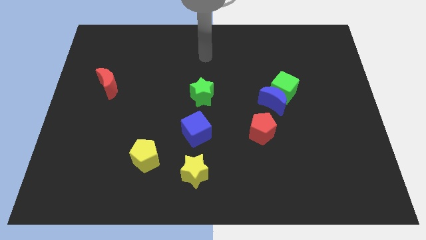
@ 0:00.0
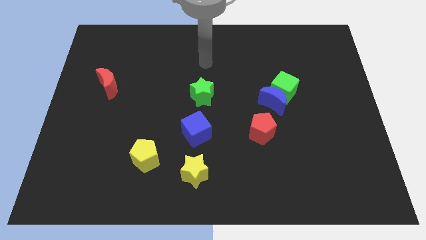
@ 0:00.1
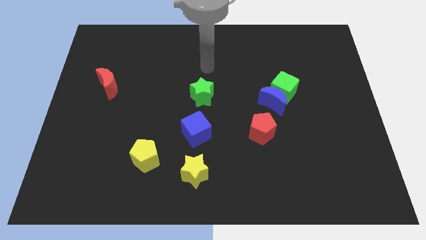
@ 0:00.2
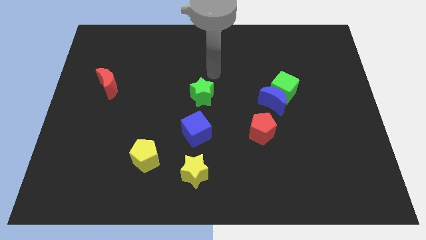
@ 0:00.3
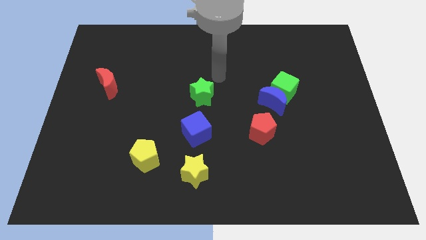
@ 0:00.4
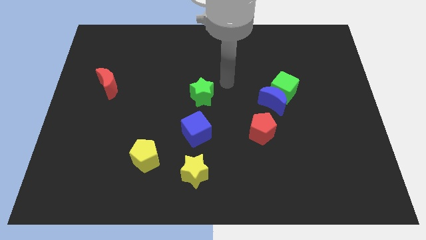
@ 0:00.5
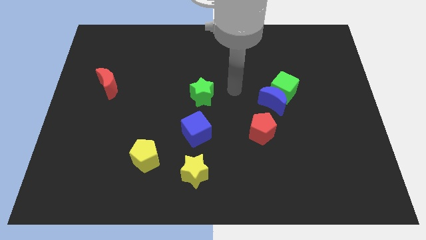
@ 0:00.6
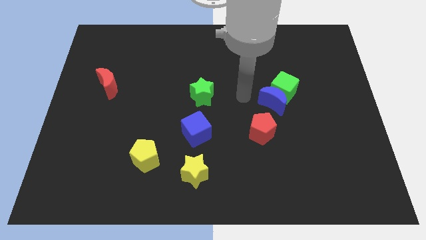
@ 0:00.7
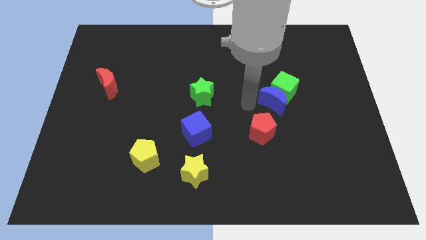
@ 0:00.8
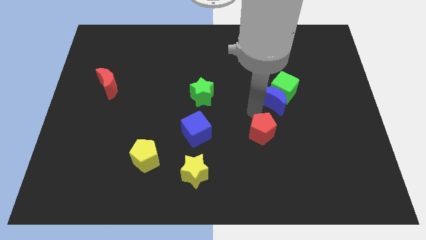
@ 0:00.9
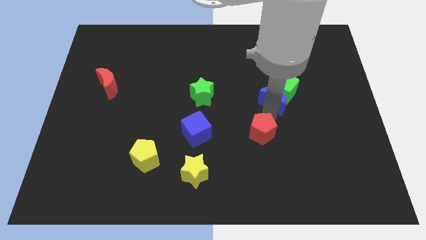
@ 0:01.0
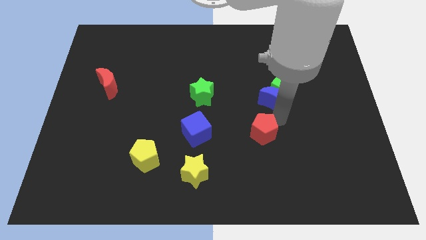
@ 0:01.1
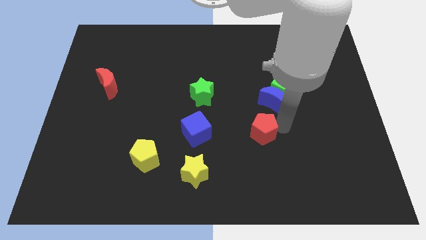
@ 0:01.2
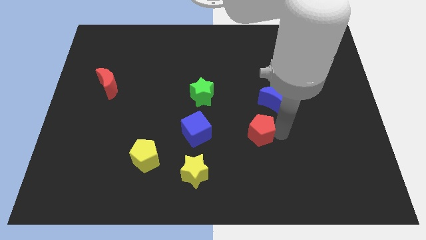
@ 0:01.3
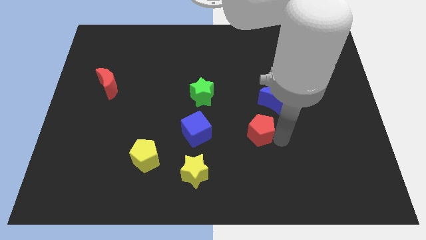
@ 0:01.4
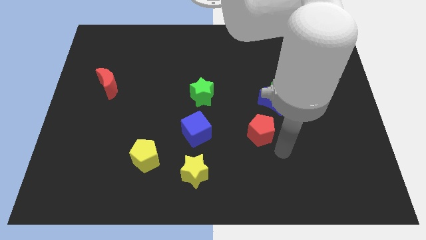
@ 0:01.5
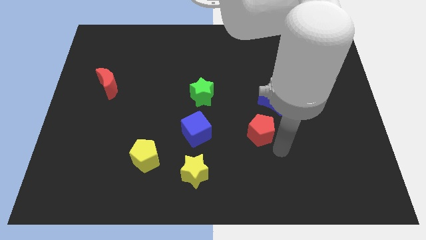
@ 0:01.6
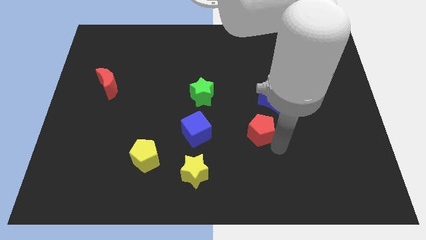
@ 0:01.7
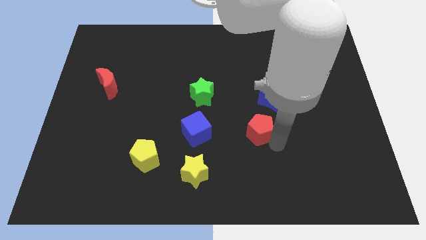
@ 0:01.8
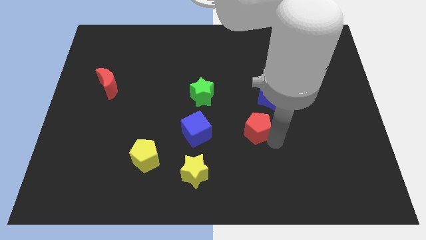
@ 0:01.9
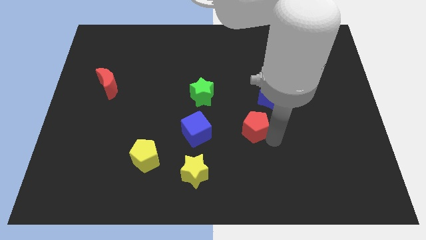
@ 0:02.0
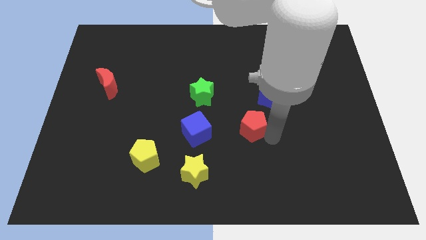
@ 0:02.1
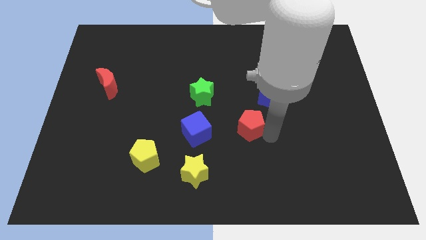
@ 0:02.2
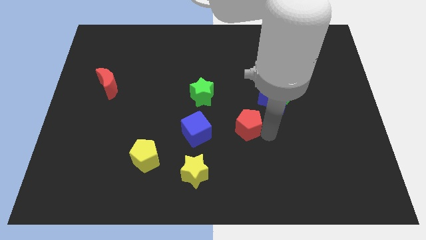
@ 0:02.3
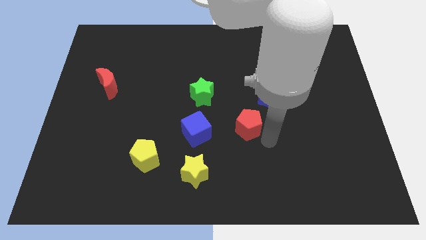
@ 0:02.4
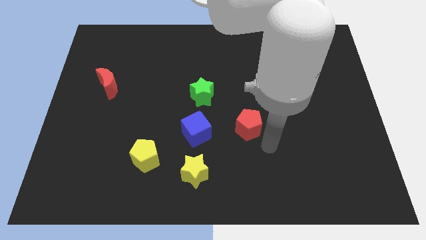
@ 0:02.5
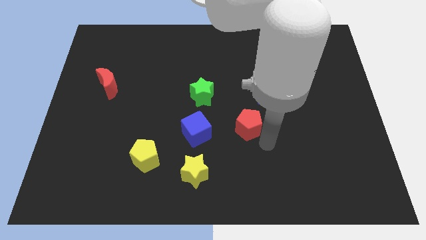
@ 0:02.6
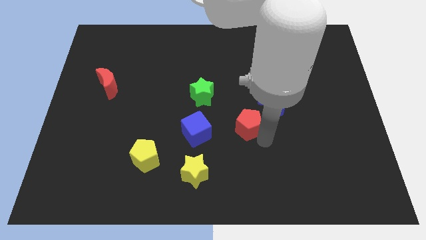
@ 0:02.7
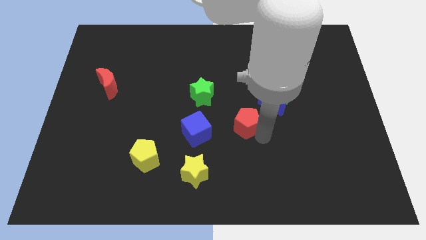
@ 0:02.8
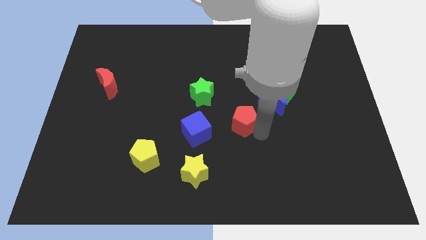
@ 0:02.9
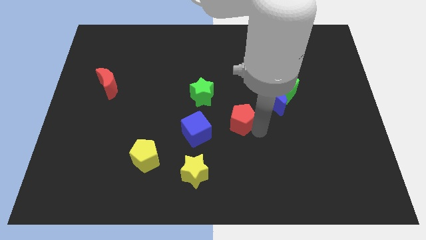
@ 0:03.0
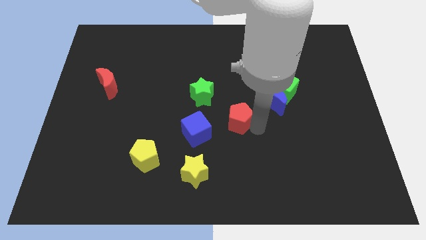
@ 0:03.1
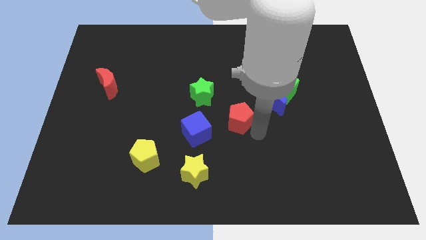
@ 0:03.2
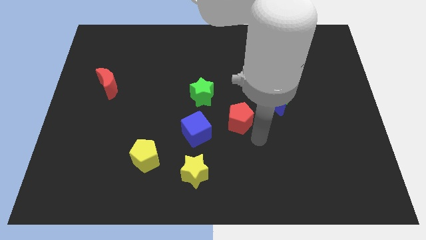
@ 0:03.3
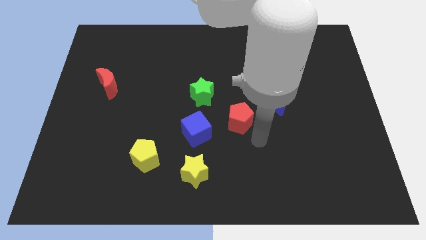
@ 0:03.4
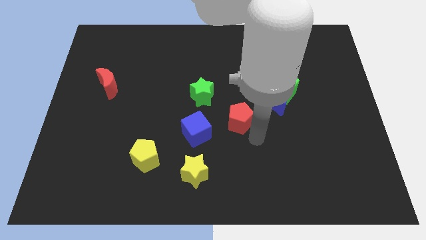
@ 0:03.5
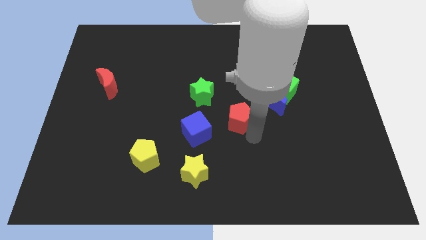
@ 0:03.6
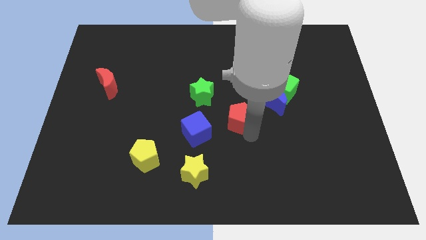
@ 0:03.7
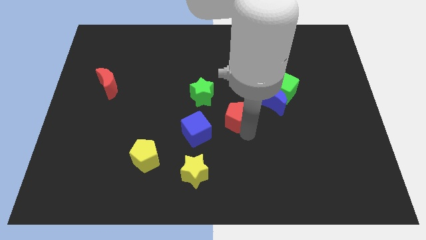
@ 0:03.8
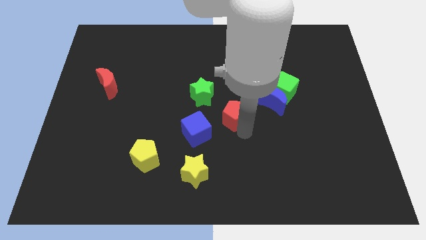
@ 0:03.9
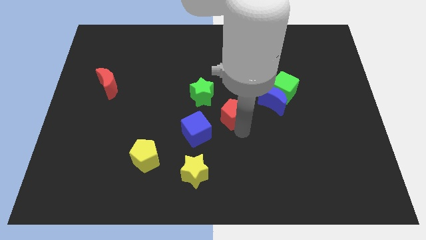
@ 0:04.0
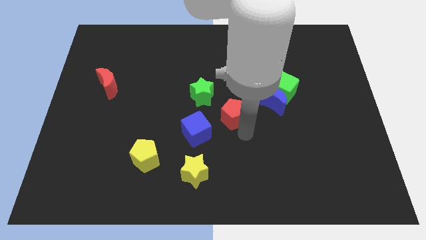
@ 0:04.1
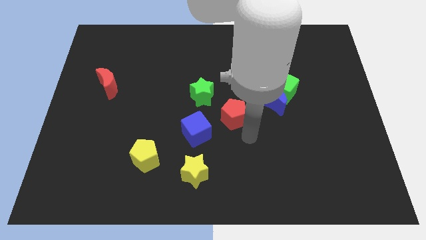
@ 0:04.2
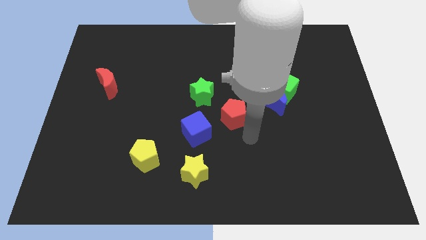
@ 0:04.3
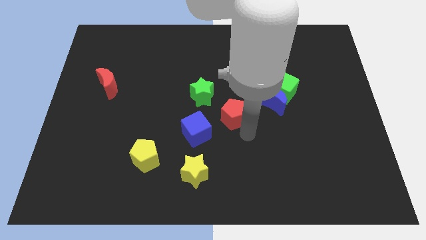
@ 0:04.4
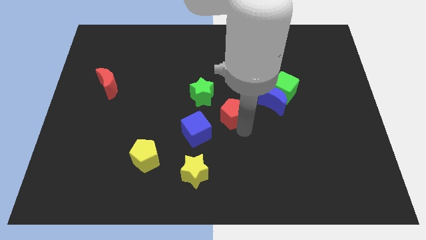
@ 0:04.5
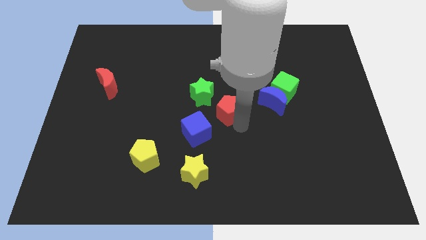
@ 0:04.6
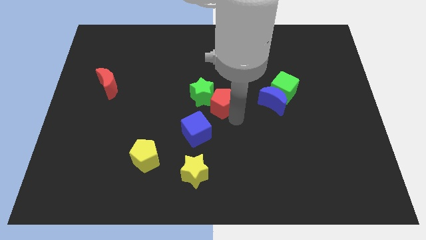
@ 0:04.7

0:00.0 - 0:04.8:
slide the red pentagon to the green star

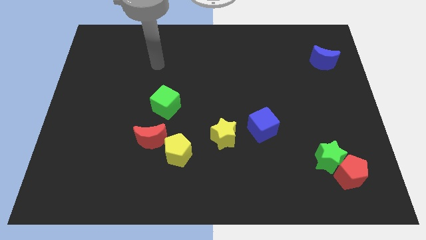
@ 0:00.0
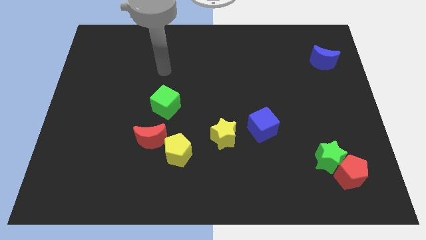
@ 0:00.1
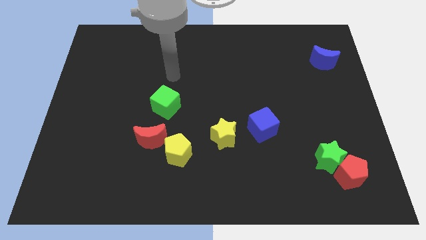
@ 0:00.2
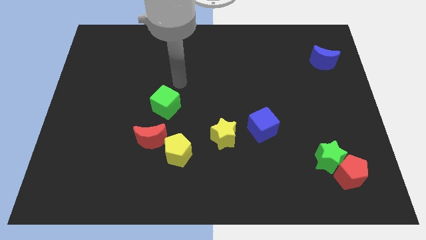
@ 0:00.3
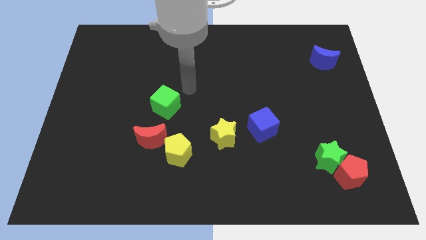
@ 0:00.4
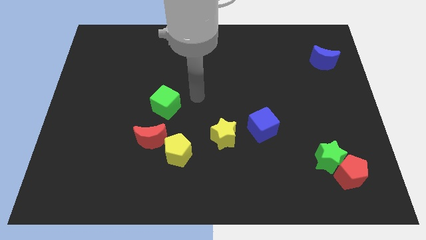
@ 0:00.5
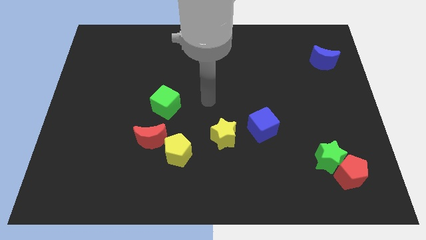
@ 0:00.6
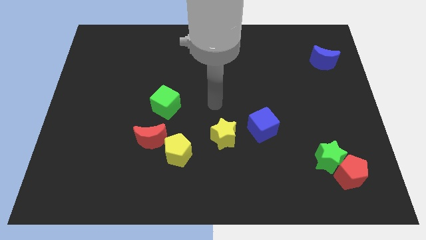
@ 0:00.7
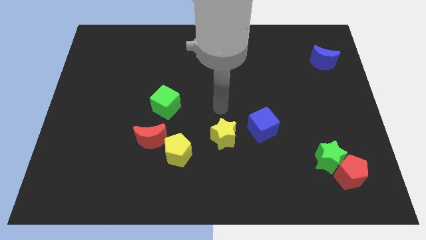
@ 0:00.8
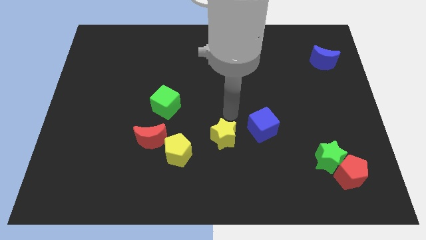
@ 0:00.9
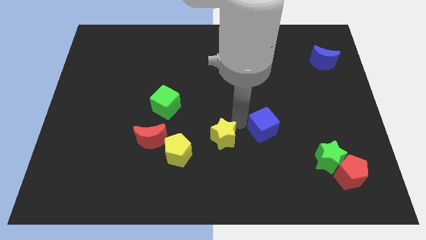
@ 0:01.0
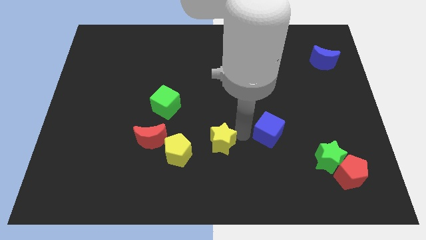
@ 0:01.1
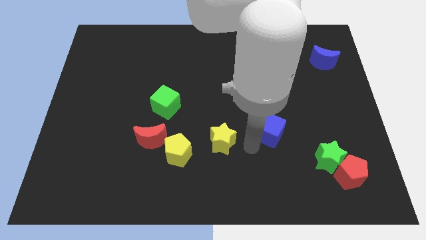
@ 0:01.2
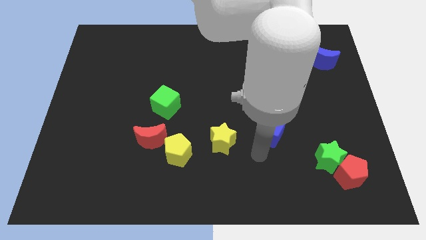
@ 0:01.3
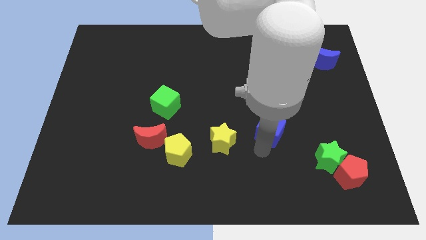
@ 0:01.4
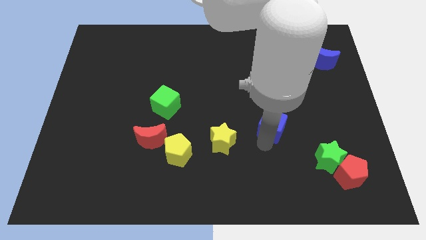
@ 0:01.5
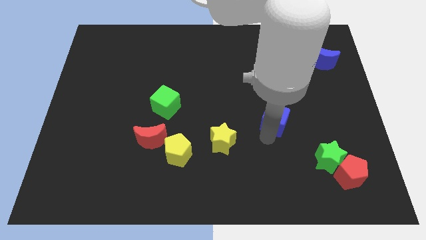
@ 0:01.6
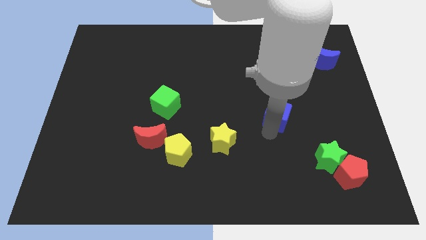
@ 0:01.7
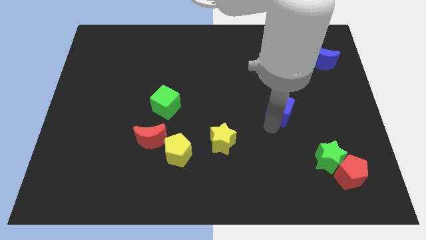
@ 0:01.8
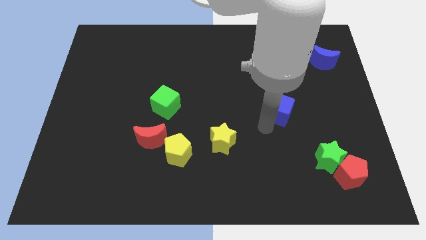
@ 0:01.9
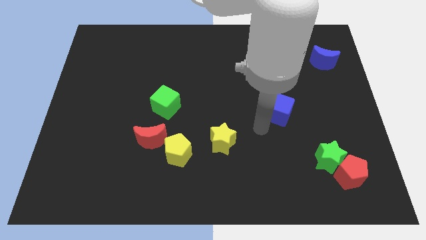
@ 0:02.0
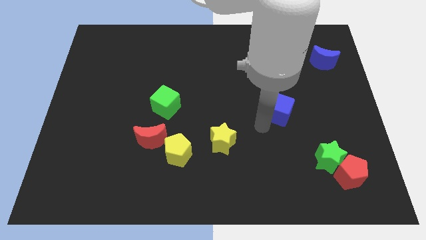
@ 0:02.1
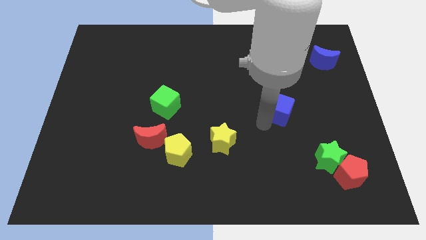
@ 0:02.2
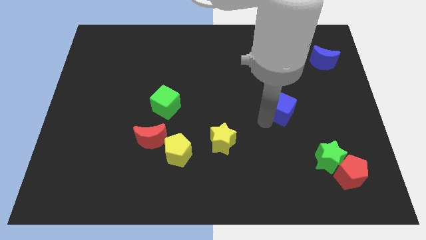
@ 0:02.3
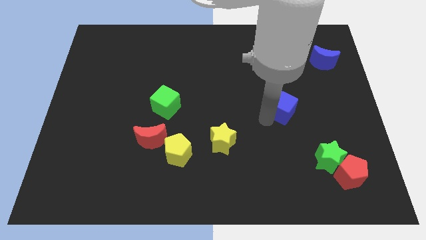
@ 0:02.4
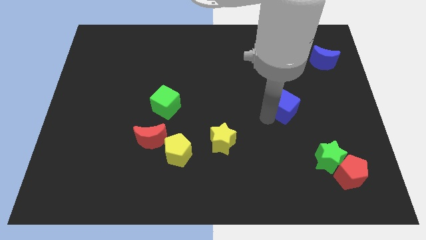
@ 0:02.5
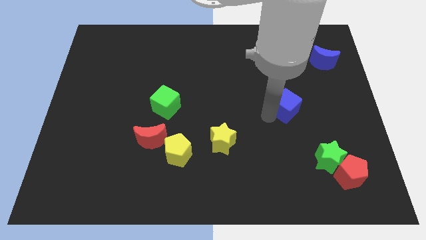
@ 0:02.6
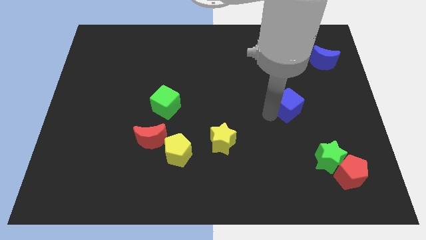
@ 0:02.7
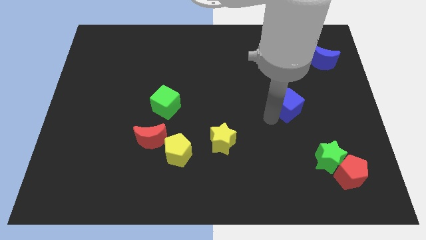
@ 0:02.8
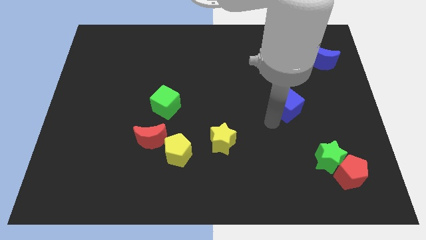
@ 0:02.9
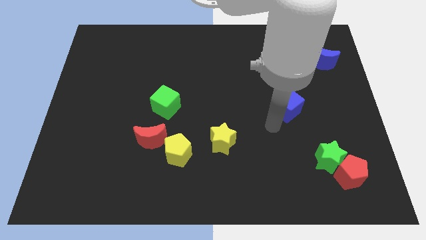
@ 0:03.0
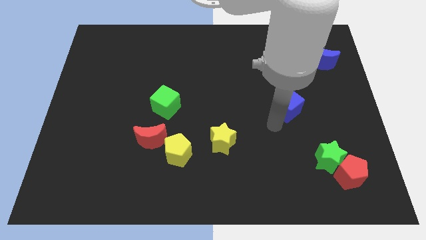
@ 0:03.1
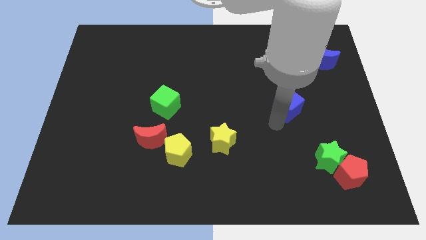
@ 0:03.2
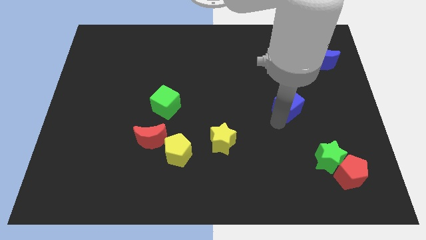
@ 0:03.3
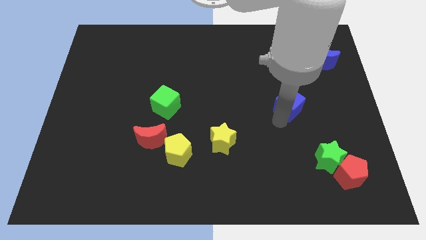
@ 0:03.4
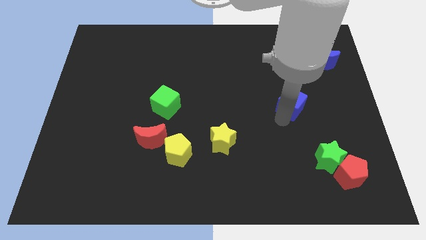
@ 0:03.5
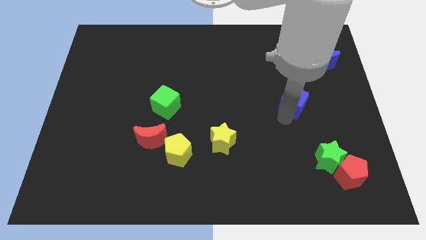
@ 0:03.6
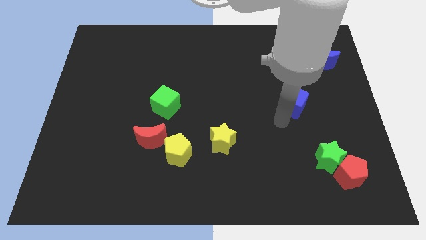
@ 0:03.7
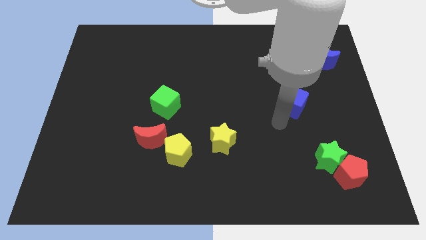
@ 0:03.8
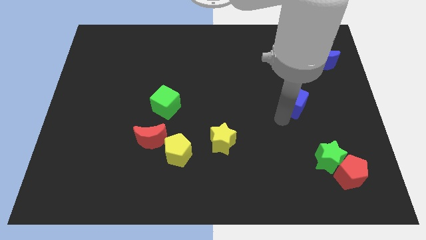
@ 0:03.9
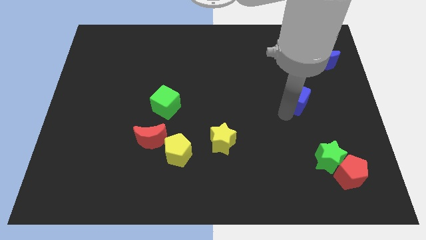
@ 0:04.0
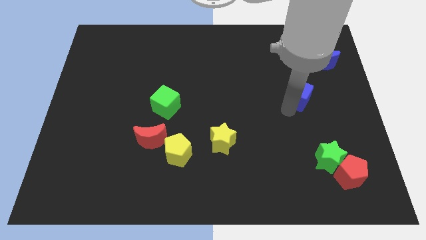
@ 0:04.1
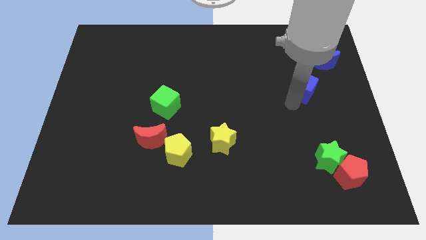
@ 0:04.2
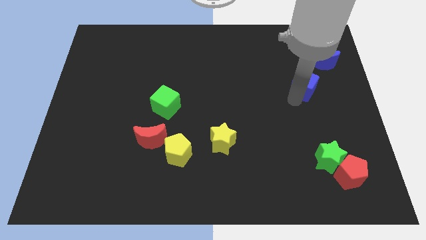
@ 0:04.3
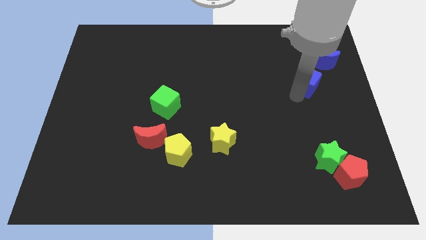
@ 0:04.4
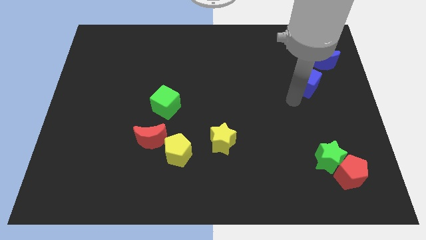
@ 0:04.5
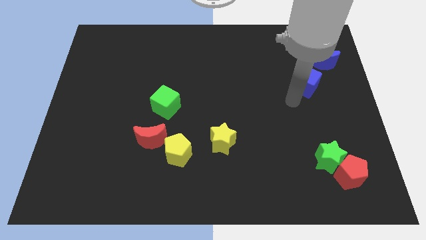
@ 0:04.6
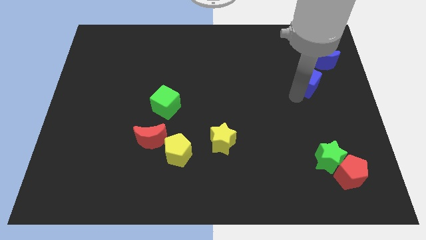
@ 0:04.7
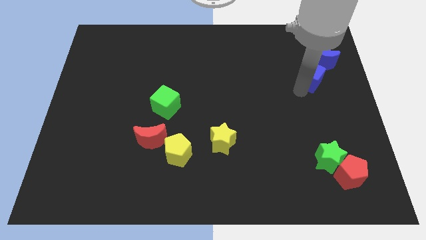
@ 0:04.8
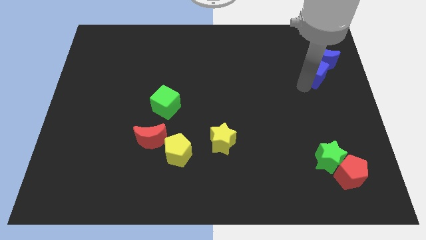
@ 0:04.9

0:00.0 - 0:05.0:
slide the blue cube to the blue moon
